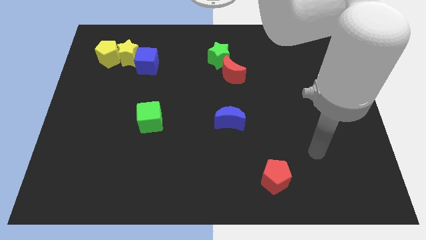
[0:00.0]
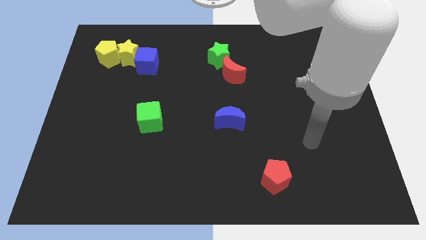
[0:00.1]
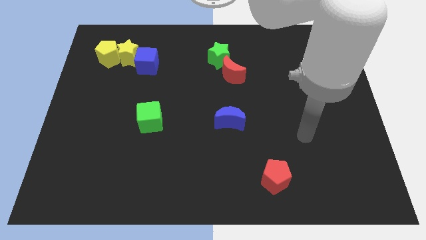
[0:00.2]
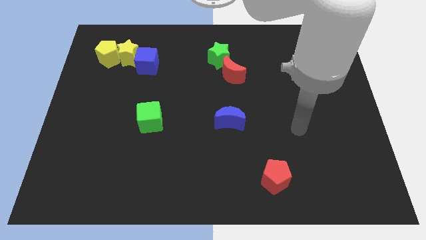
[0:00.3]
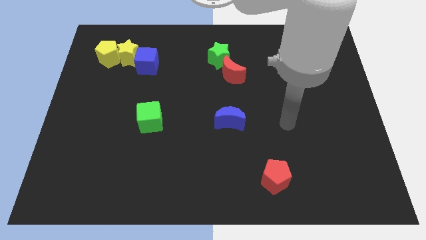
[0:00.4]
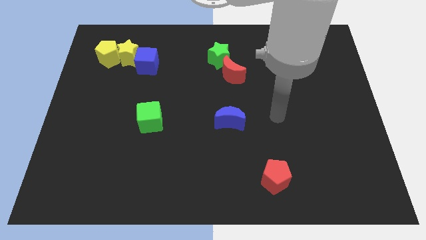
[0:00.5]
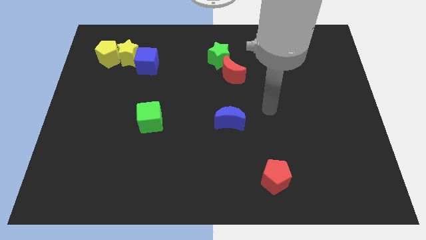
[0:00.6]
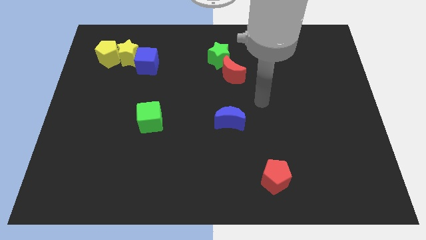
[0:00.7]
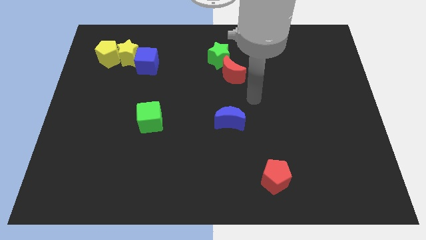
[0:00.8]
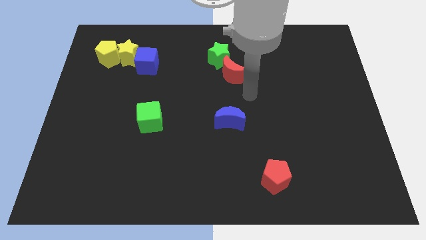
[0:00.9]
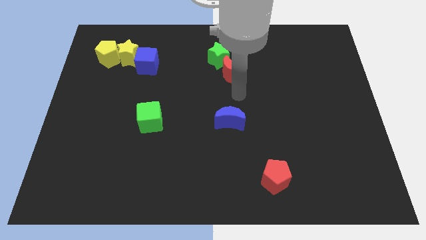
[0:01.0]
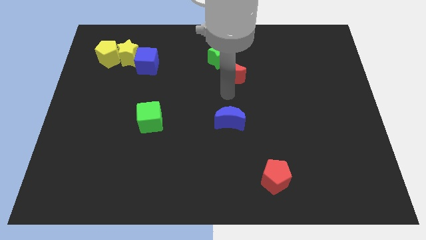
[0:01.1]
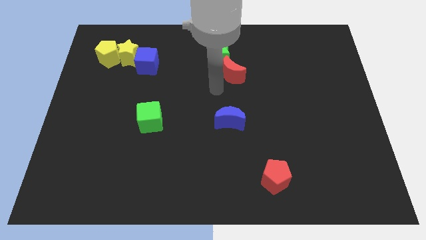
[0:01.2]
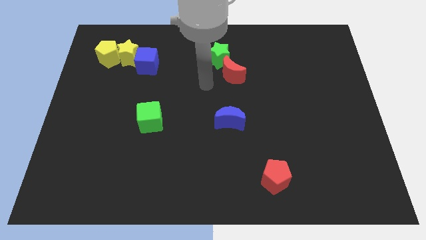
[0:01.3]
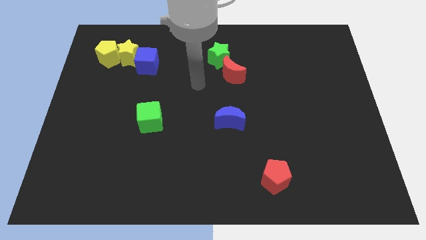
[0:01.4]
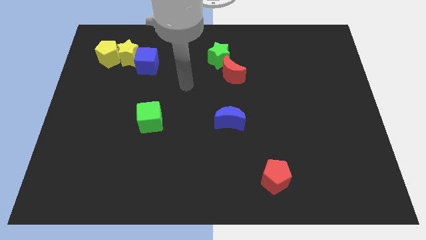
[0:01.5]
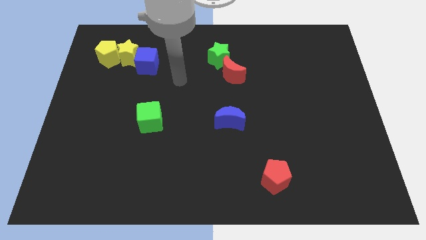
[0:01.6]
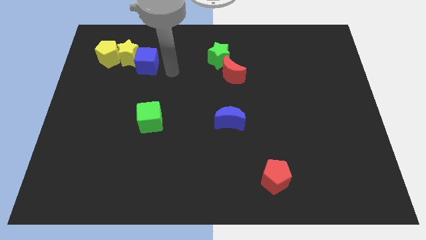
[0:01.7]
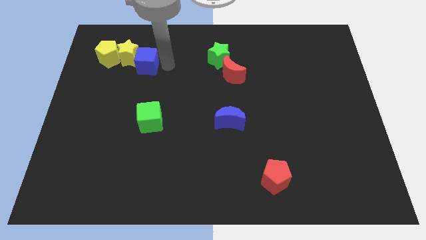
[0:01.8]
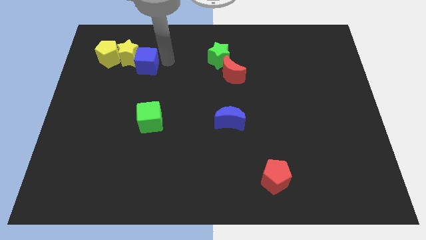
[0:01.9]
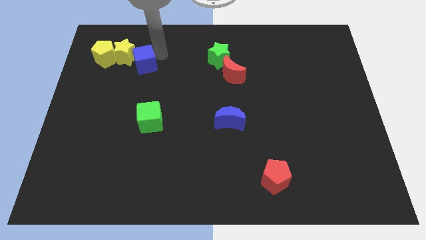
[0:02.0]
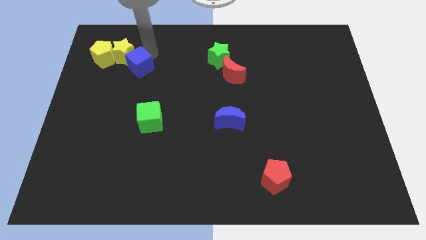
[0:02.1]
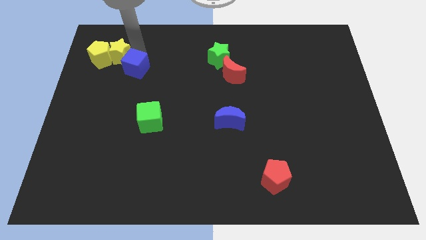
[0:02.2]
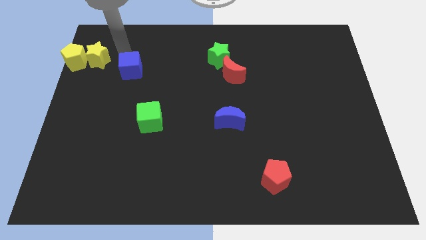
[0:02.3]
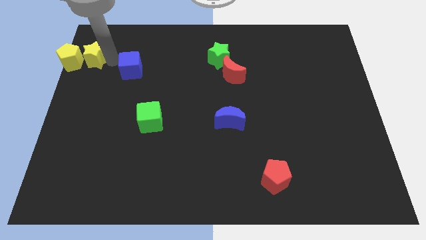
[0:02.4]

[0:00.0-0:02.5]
pull the blue cube apart from the yellow star

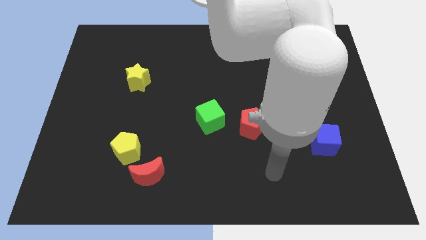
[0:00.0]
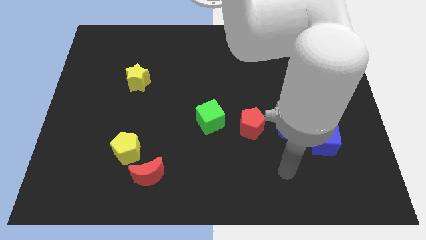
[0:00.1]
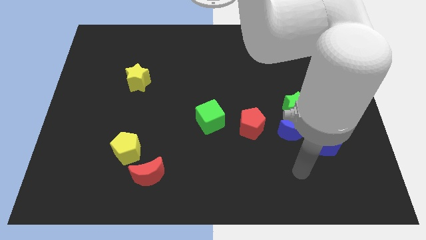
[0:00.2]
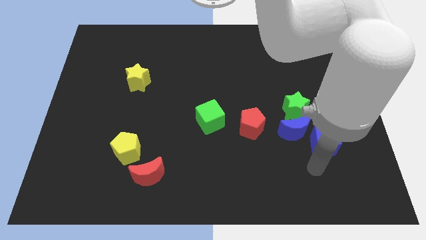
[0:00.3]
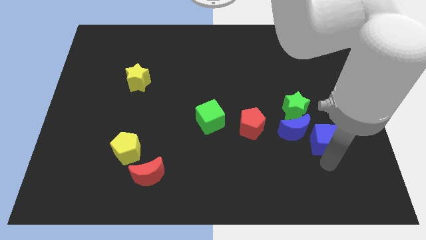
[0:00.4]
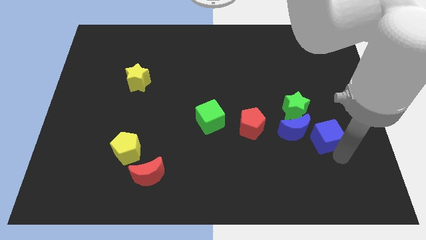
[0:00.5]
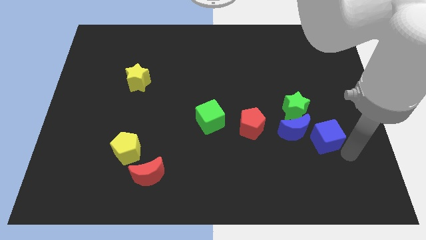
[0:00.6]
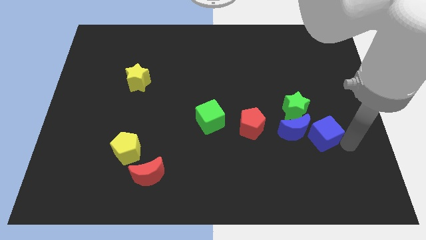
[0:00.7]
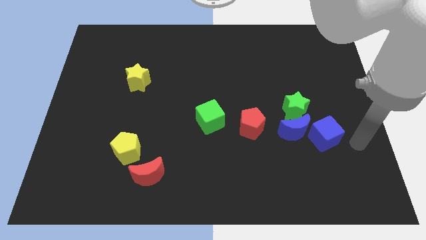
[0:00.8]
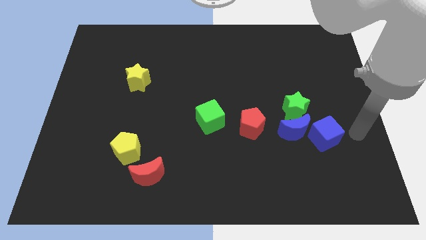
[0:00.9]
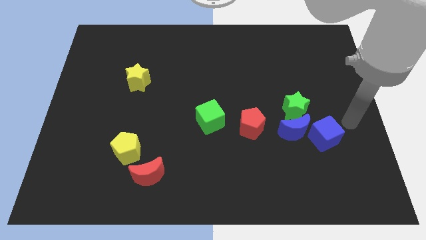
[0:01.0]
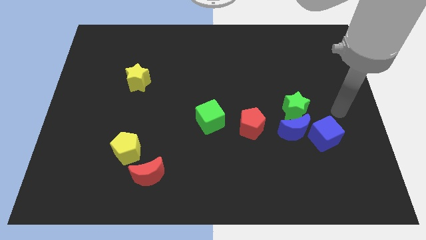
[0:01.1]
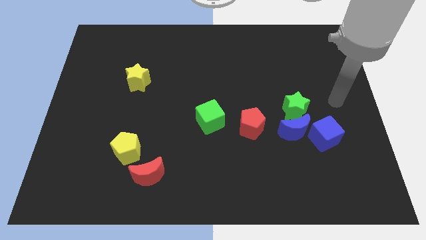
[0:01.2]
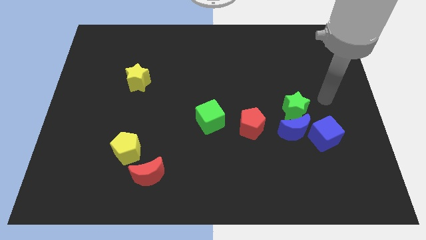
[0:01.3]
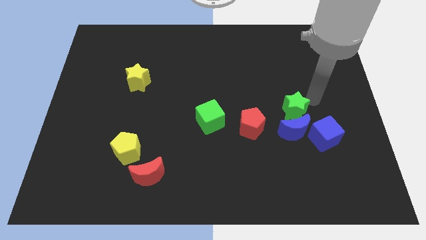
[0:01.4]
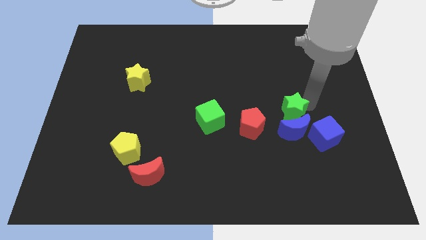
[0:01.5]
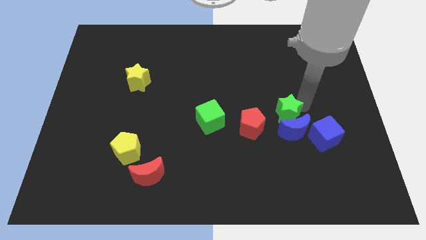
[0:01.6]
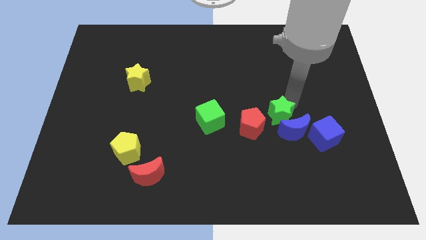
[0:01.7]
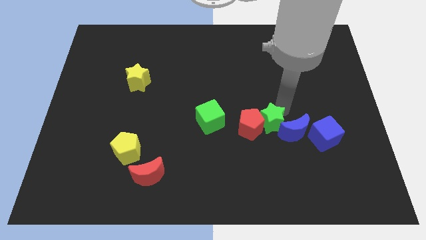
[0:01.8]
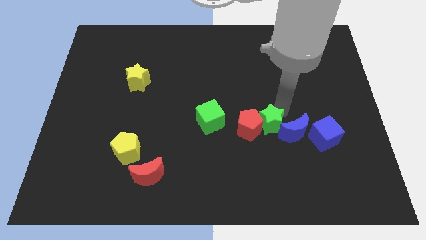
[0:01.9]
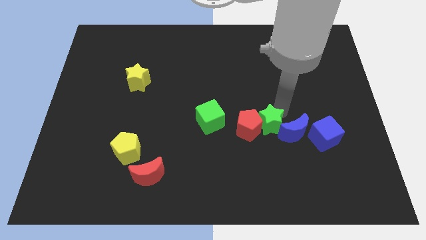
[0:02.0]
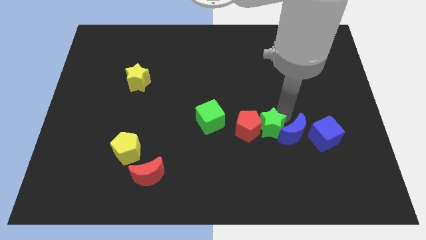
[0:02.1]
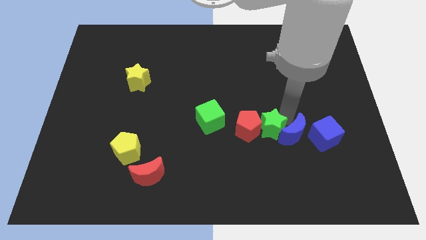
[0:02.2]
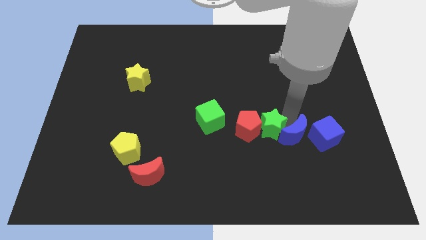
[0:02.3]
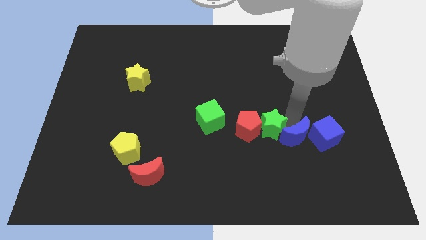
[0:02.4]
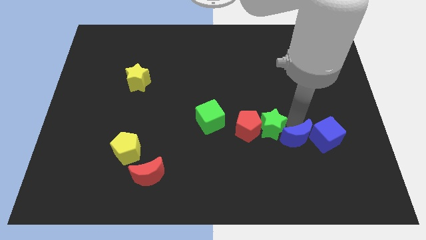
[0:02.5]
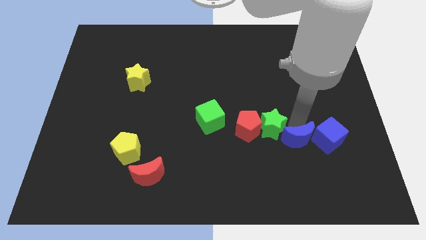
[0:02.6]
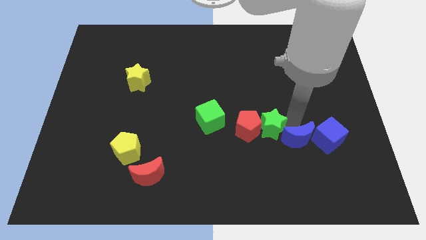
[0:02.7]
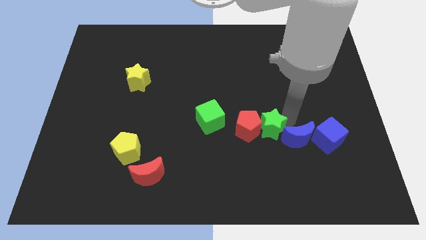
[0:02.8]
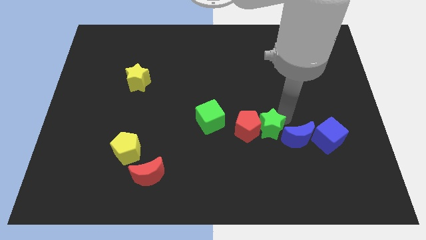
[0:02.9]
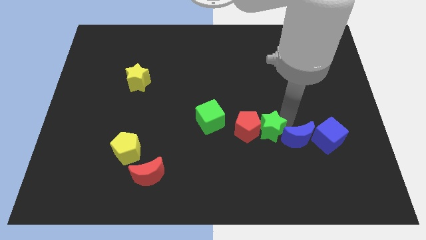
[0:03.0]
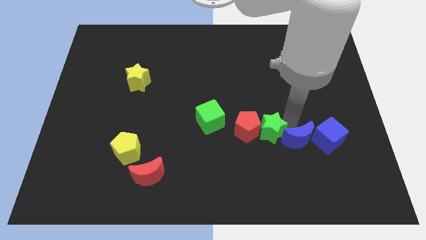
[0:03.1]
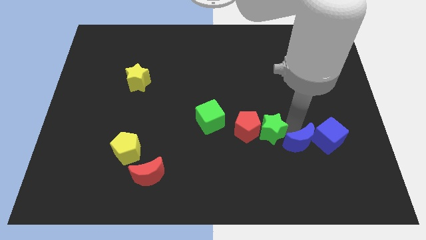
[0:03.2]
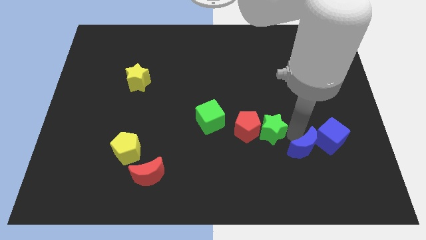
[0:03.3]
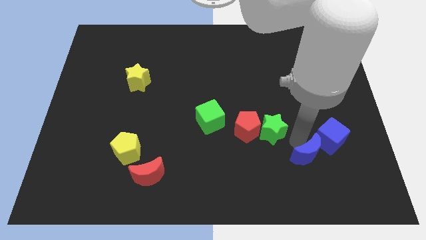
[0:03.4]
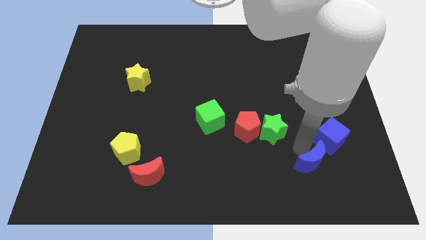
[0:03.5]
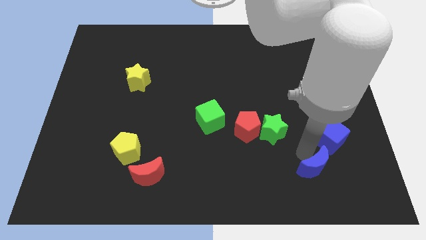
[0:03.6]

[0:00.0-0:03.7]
move the blue moon away from the green star, blue cube, and red pentagon

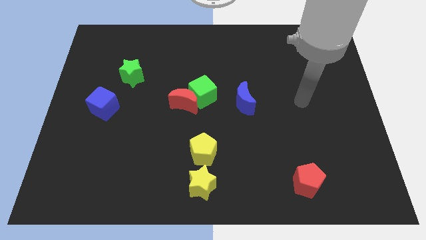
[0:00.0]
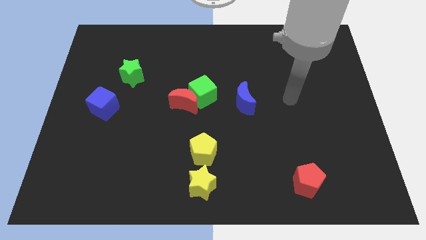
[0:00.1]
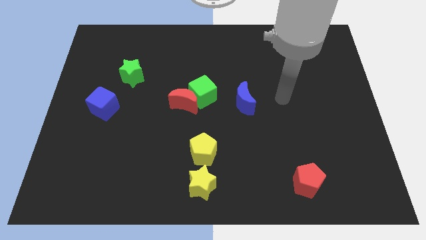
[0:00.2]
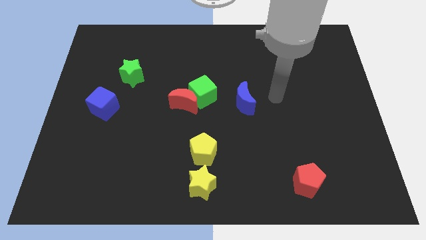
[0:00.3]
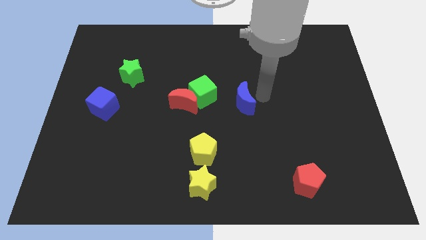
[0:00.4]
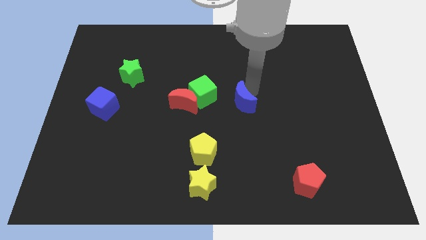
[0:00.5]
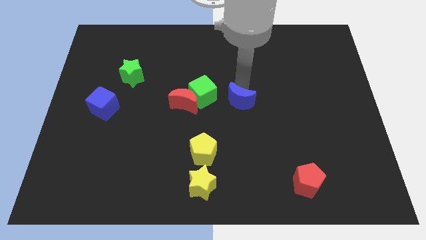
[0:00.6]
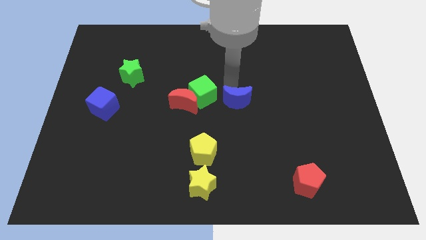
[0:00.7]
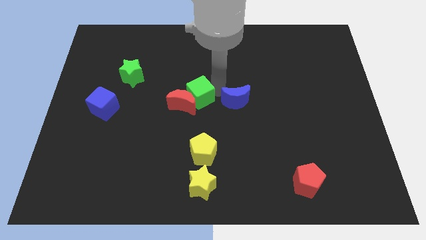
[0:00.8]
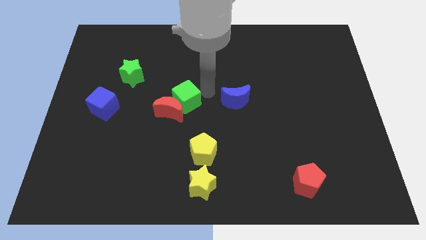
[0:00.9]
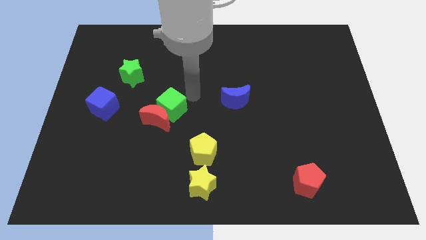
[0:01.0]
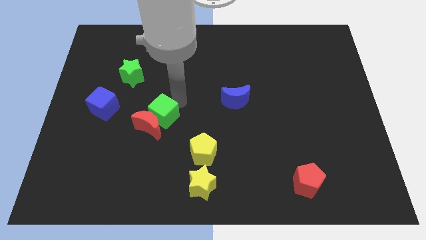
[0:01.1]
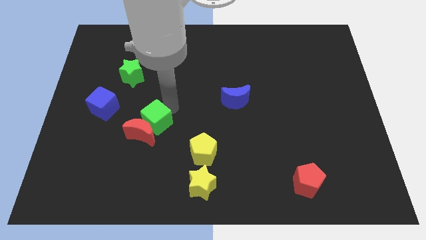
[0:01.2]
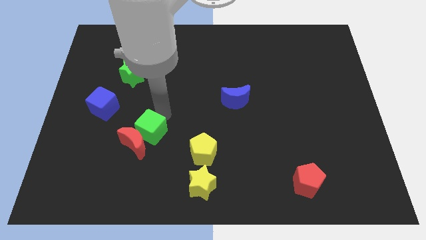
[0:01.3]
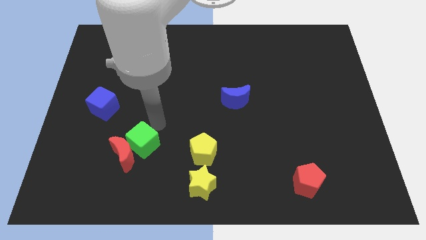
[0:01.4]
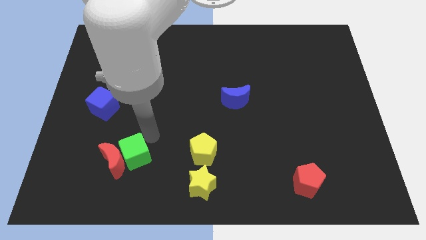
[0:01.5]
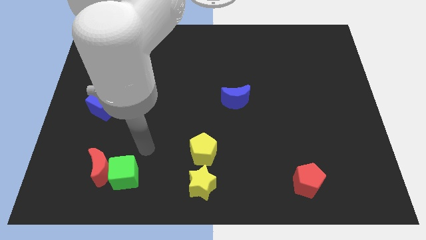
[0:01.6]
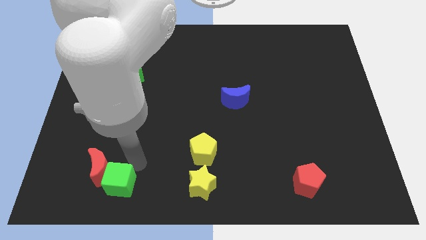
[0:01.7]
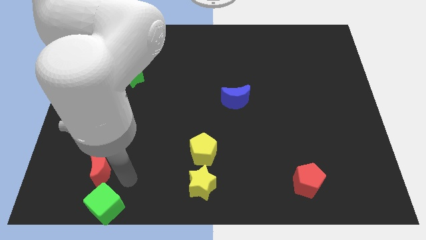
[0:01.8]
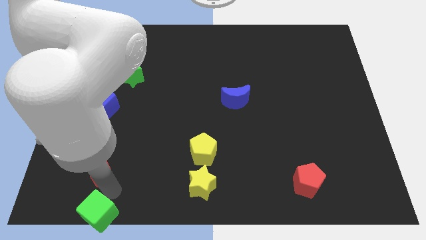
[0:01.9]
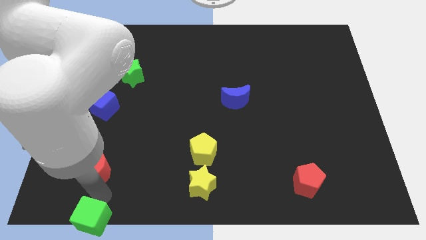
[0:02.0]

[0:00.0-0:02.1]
move the red moon away from the green cube

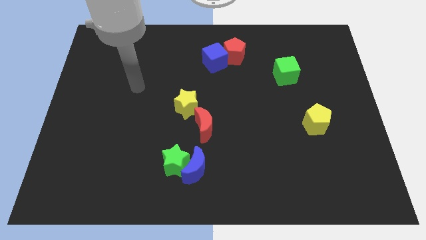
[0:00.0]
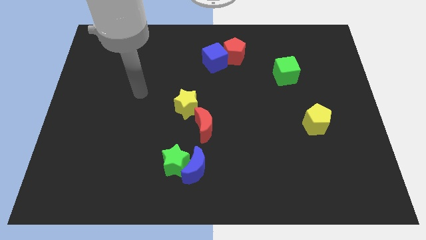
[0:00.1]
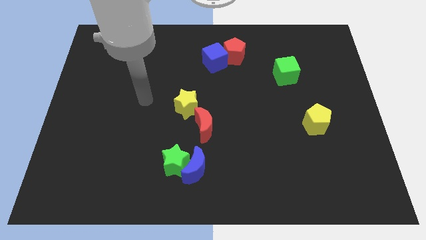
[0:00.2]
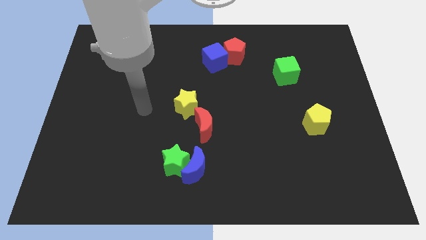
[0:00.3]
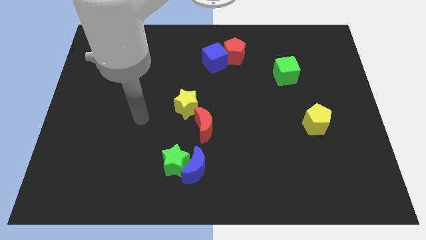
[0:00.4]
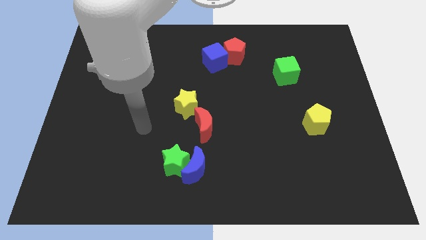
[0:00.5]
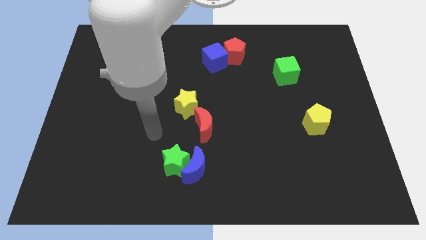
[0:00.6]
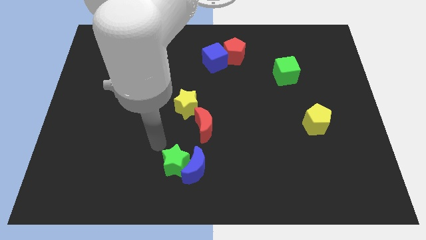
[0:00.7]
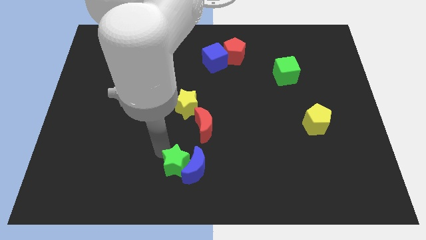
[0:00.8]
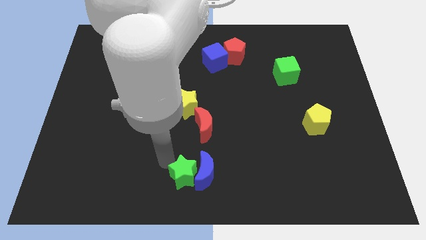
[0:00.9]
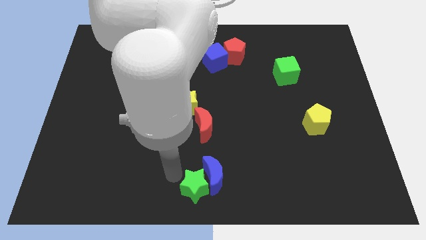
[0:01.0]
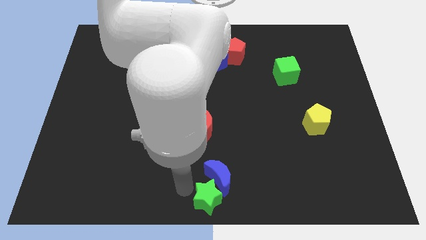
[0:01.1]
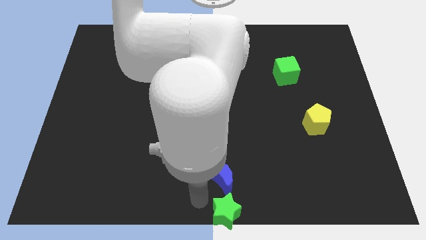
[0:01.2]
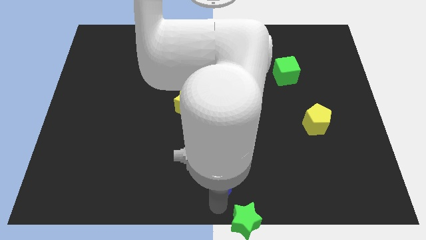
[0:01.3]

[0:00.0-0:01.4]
pull the blue moon apart from the green star
